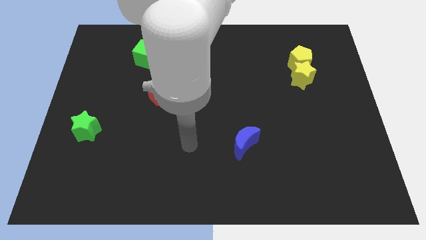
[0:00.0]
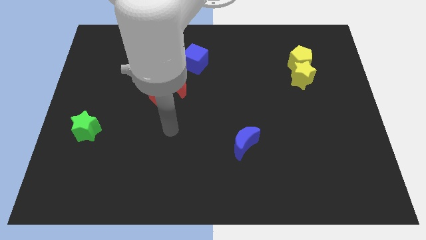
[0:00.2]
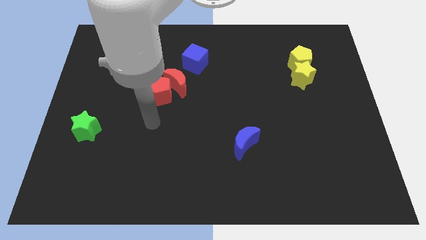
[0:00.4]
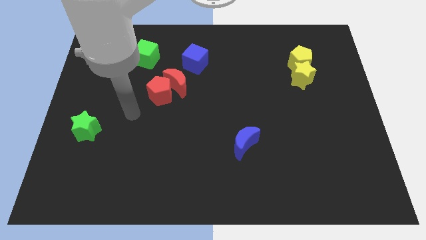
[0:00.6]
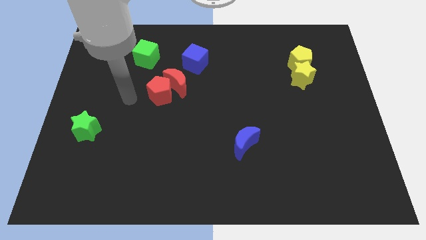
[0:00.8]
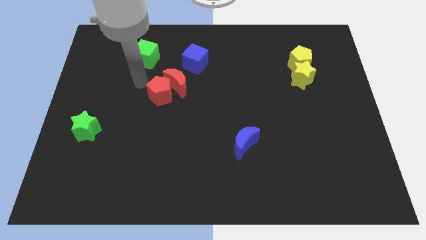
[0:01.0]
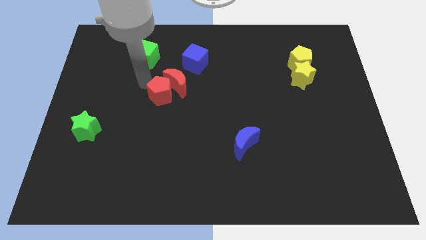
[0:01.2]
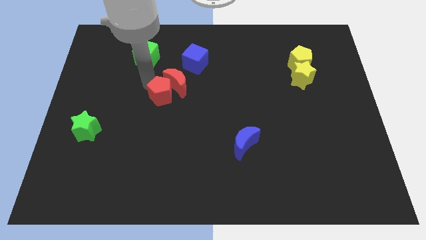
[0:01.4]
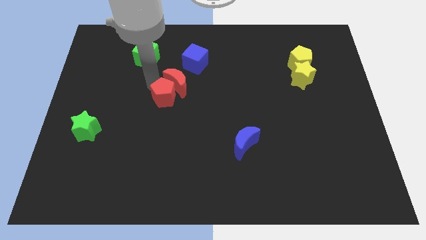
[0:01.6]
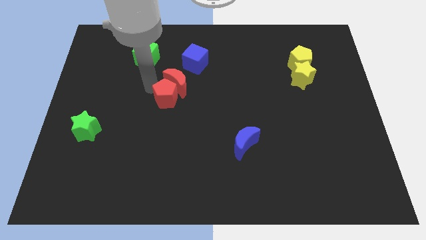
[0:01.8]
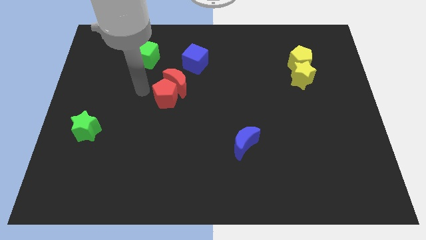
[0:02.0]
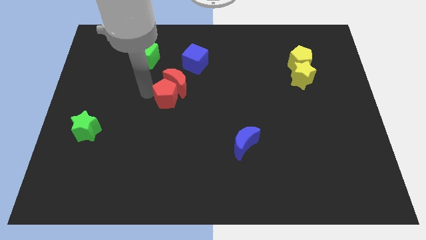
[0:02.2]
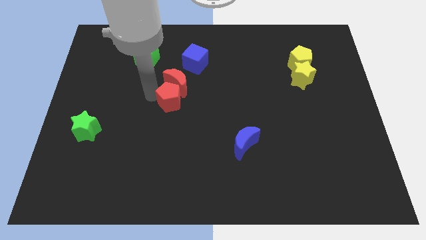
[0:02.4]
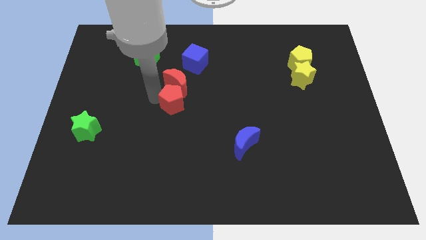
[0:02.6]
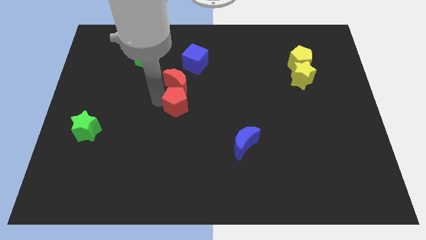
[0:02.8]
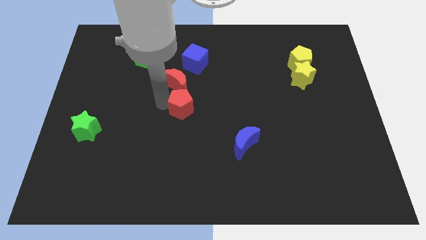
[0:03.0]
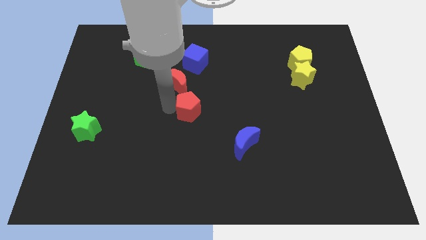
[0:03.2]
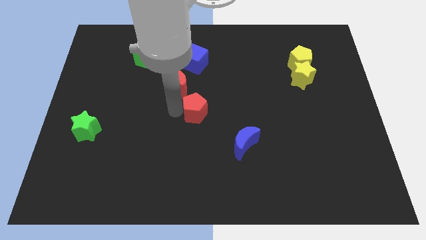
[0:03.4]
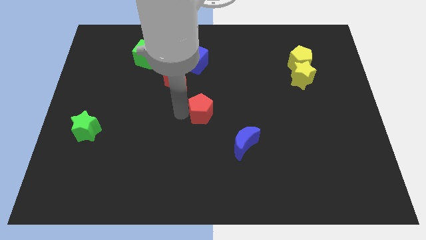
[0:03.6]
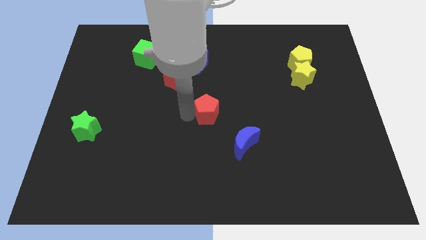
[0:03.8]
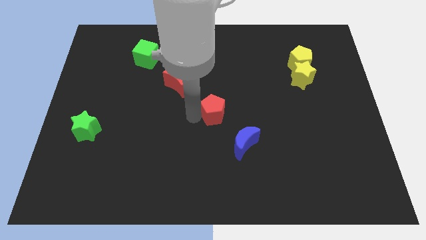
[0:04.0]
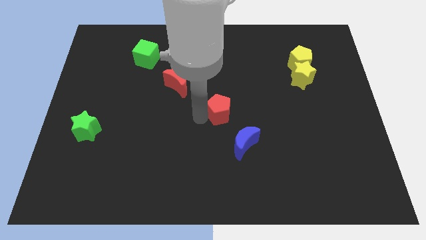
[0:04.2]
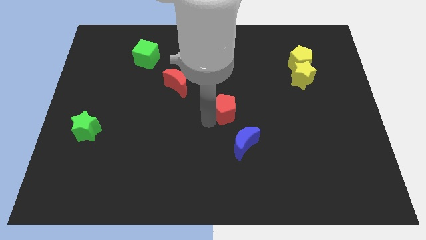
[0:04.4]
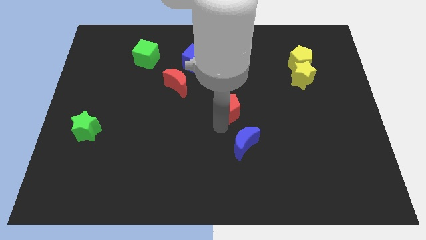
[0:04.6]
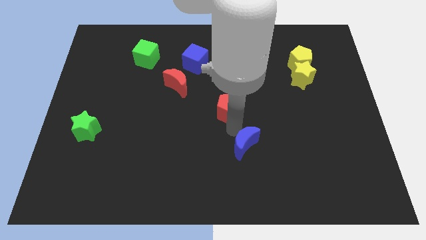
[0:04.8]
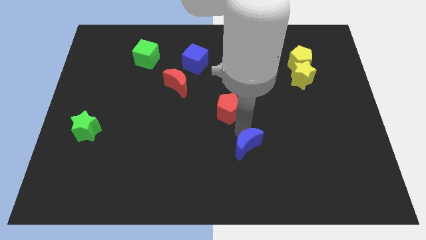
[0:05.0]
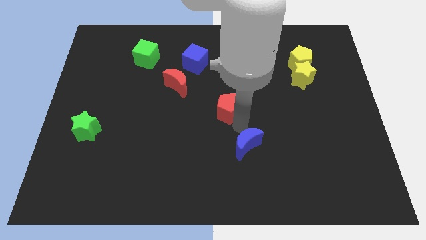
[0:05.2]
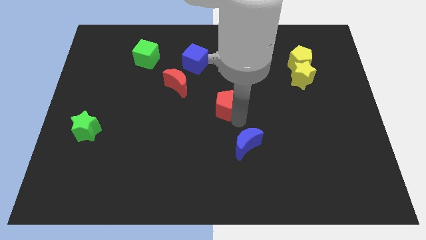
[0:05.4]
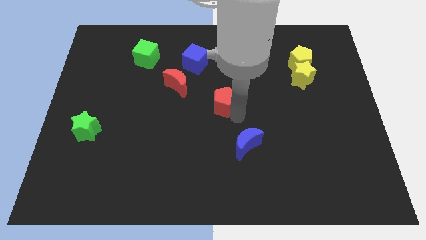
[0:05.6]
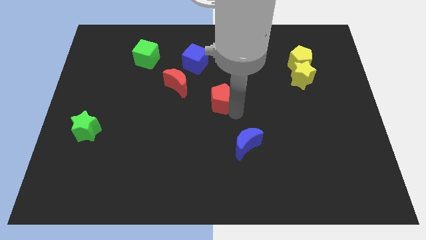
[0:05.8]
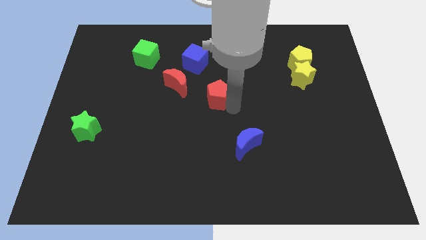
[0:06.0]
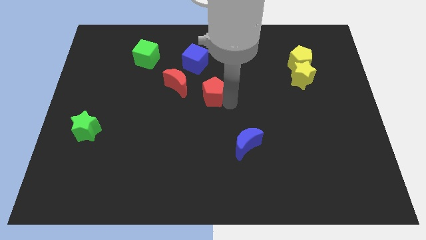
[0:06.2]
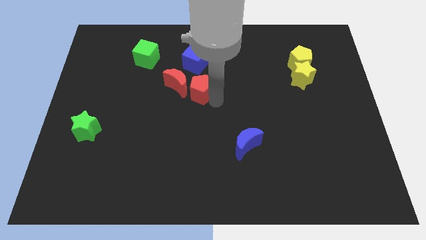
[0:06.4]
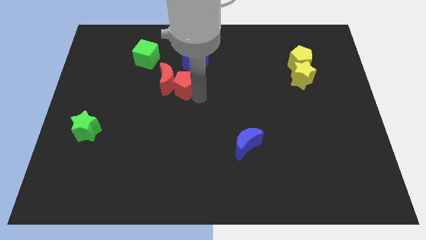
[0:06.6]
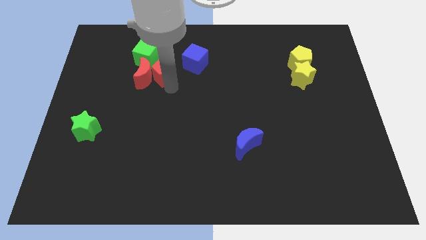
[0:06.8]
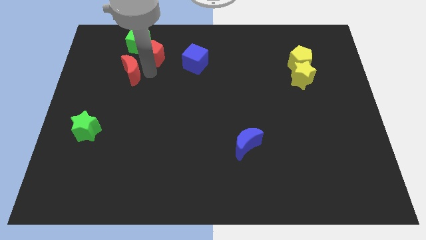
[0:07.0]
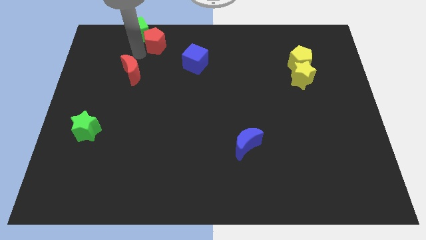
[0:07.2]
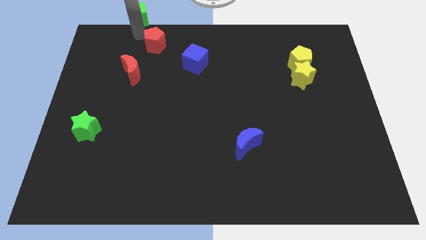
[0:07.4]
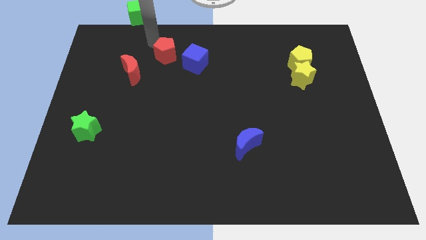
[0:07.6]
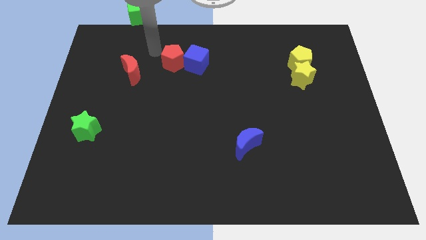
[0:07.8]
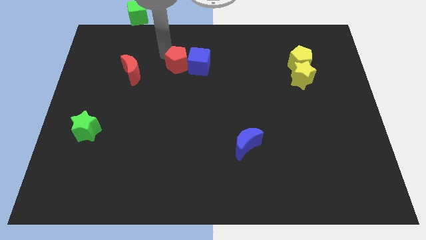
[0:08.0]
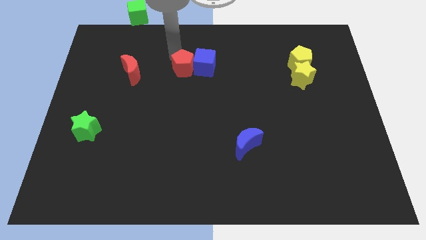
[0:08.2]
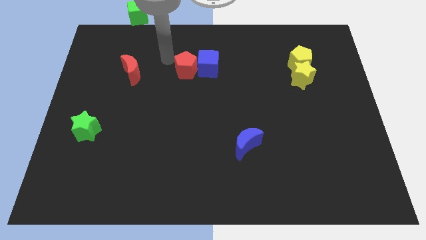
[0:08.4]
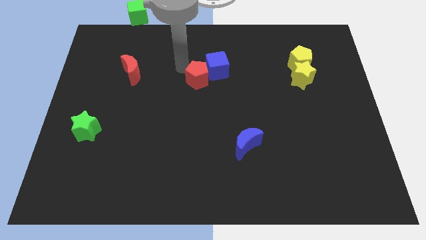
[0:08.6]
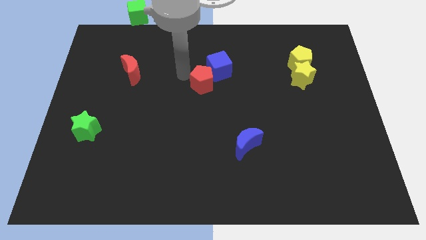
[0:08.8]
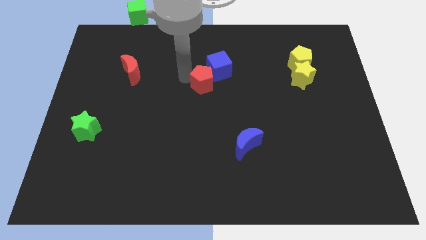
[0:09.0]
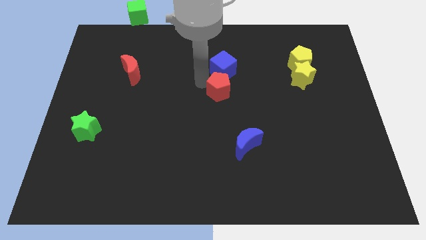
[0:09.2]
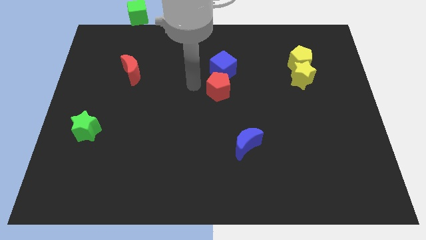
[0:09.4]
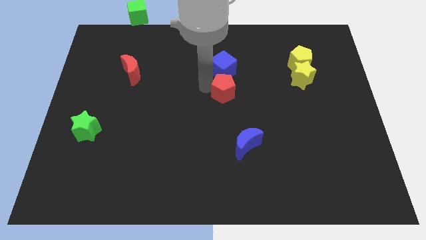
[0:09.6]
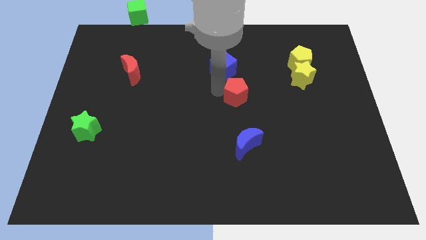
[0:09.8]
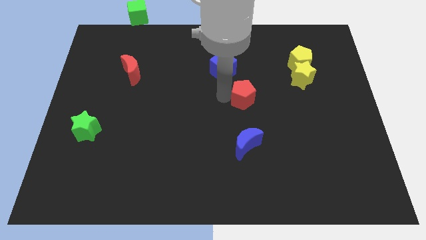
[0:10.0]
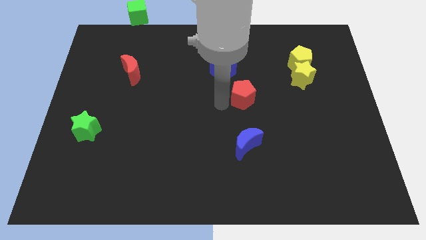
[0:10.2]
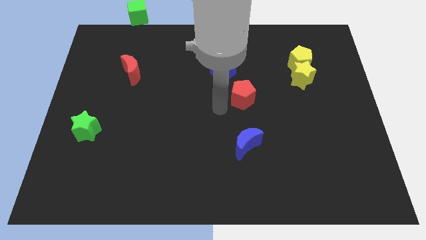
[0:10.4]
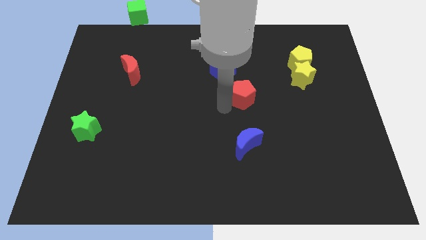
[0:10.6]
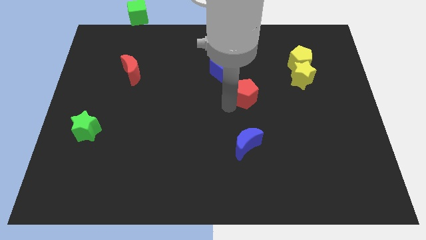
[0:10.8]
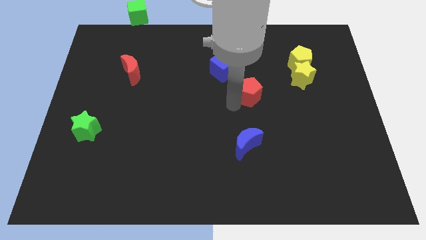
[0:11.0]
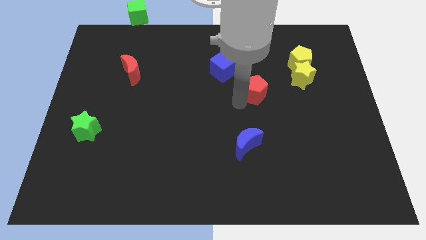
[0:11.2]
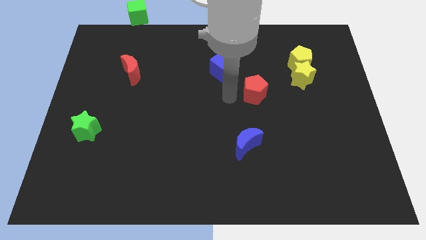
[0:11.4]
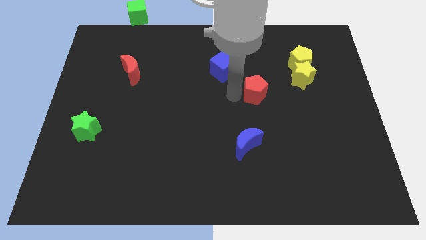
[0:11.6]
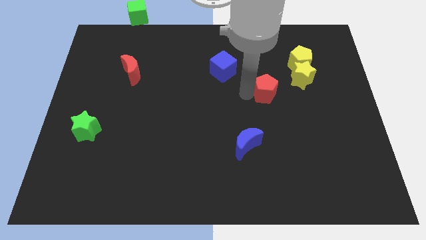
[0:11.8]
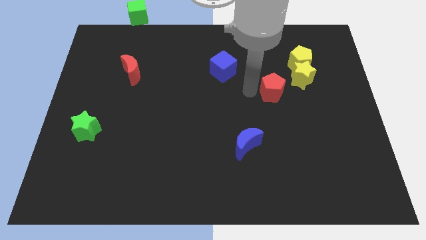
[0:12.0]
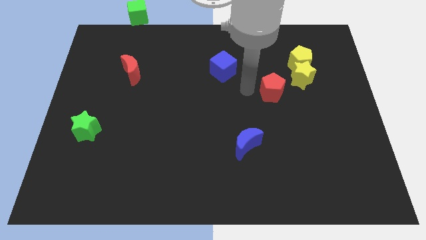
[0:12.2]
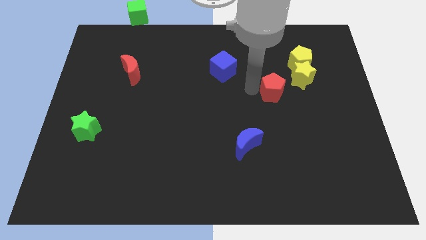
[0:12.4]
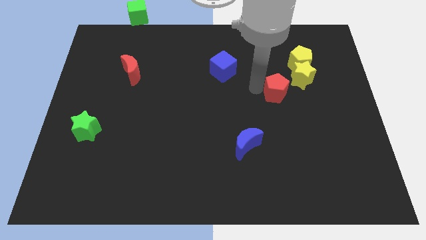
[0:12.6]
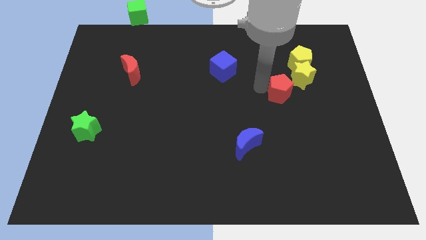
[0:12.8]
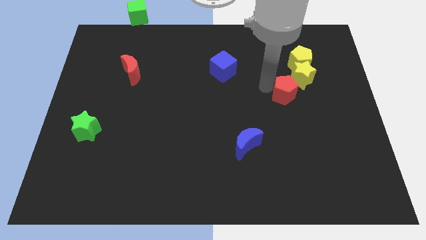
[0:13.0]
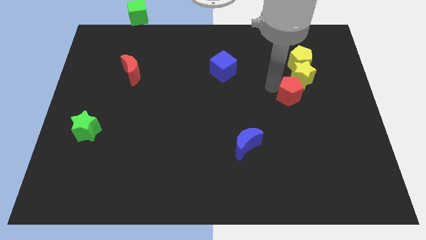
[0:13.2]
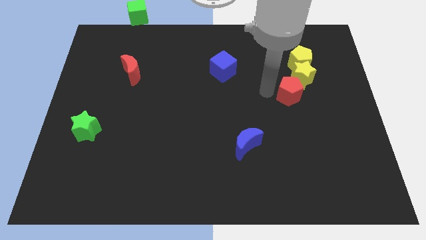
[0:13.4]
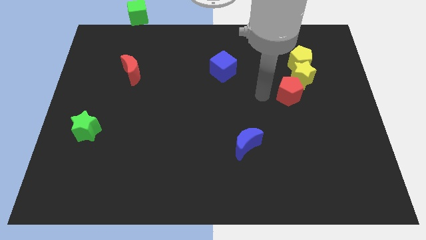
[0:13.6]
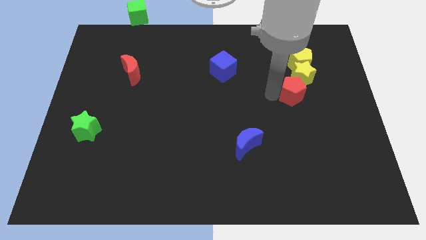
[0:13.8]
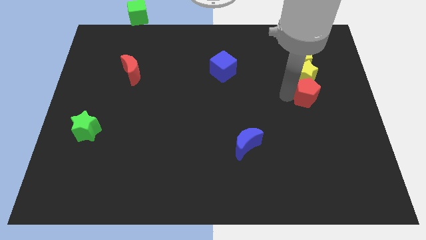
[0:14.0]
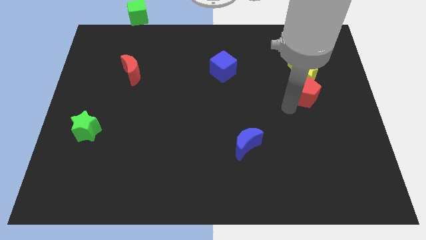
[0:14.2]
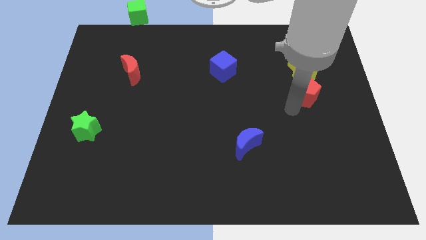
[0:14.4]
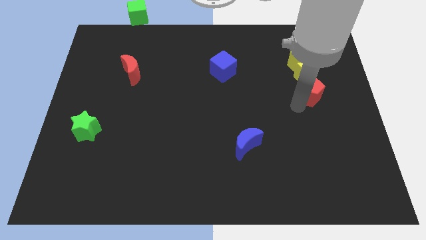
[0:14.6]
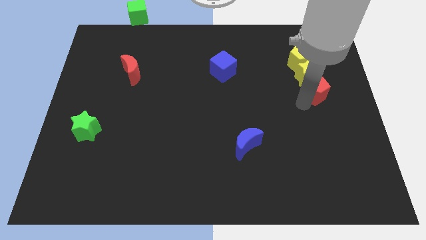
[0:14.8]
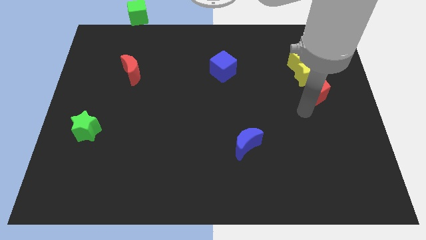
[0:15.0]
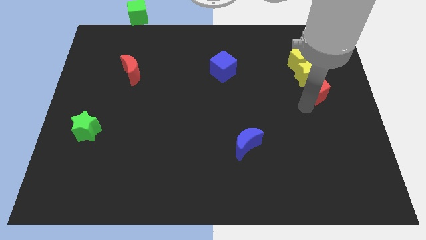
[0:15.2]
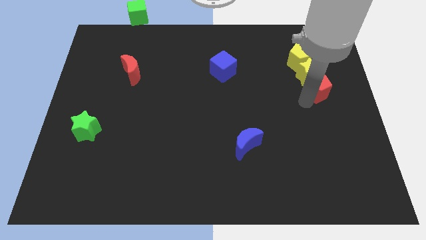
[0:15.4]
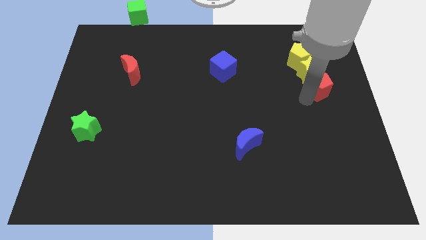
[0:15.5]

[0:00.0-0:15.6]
slide the red pentagon to the bottom right of the yellow pentagon
